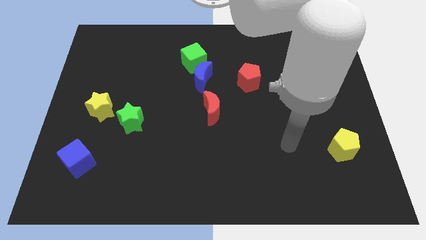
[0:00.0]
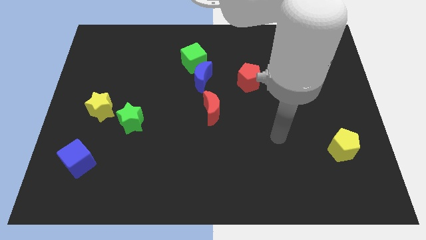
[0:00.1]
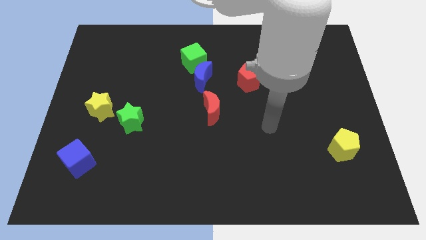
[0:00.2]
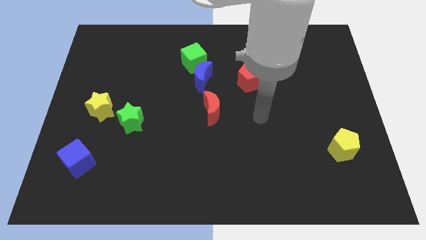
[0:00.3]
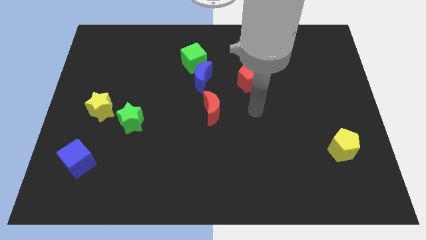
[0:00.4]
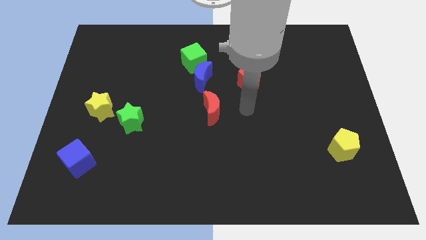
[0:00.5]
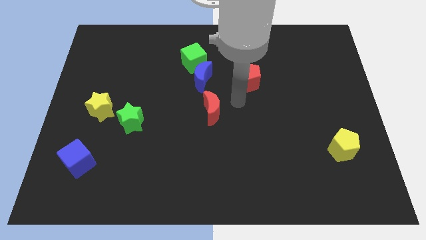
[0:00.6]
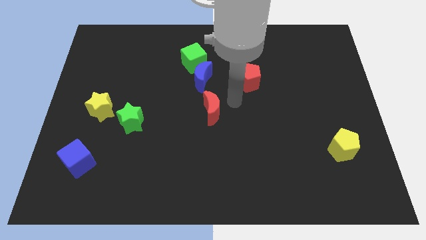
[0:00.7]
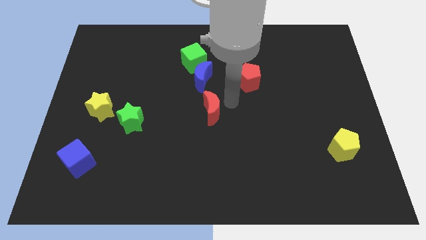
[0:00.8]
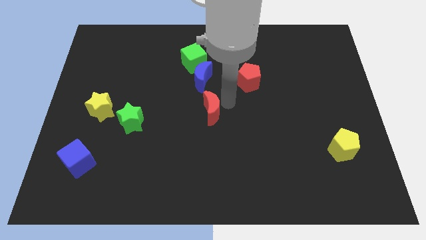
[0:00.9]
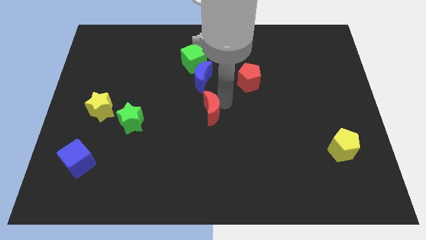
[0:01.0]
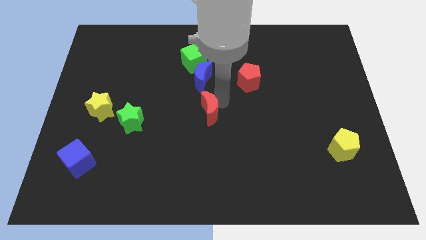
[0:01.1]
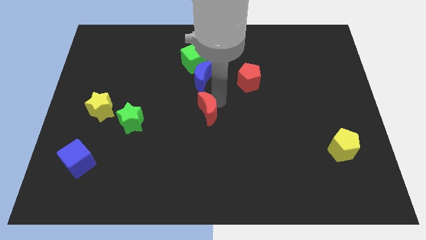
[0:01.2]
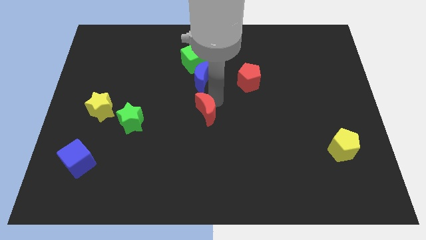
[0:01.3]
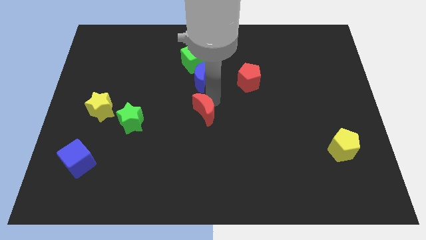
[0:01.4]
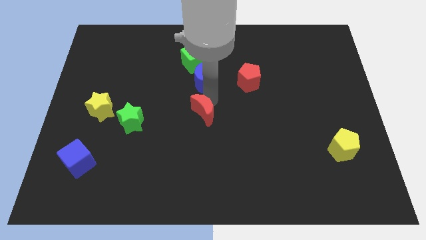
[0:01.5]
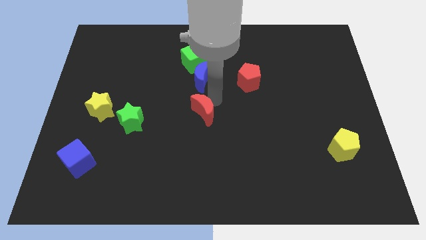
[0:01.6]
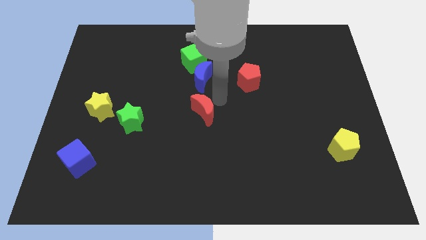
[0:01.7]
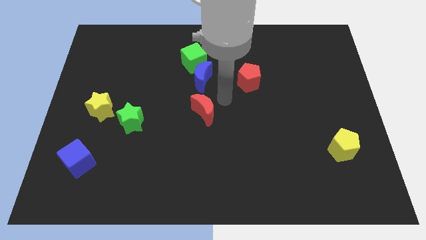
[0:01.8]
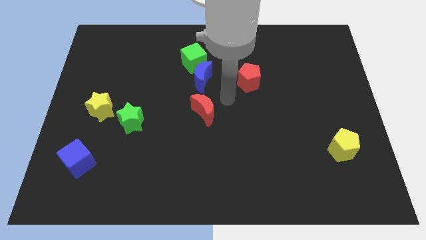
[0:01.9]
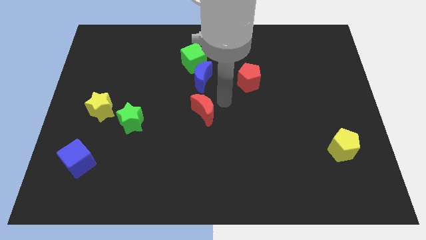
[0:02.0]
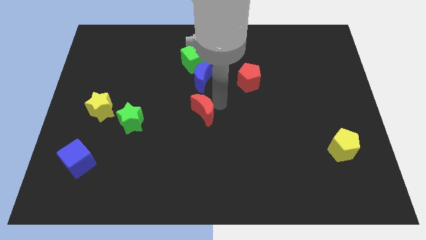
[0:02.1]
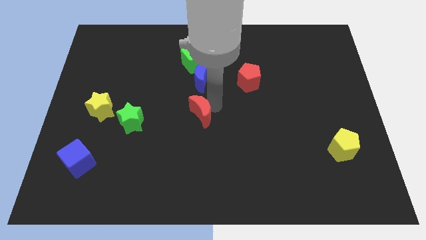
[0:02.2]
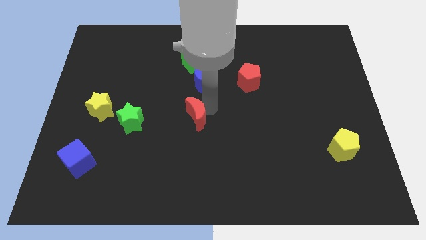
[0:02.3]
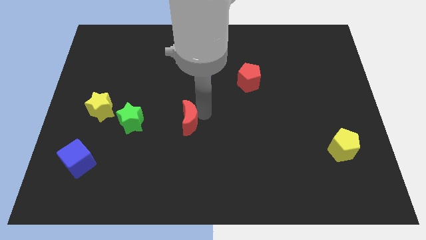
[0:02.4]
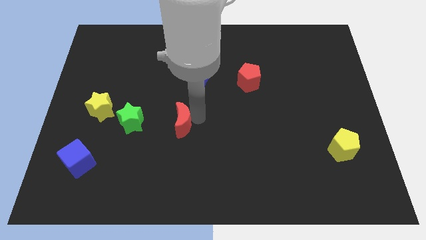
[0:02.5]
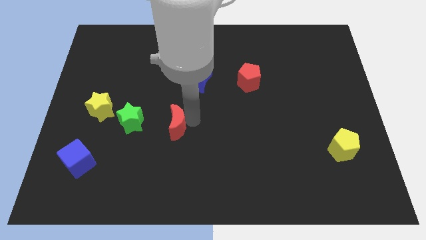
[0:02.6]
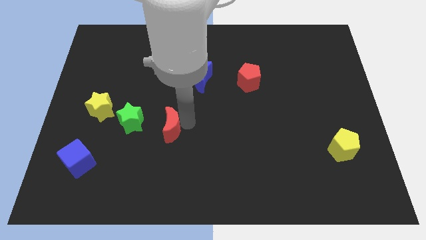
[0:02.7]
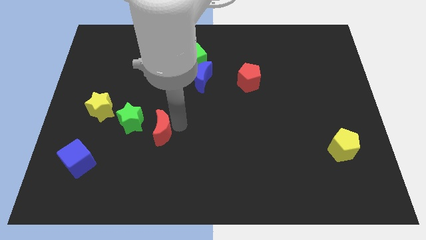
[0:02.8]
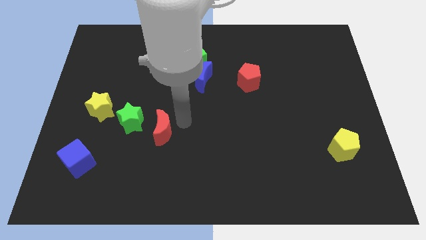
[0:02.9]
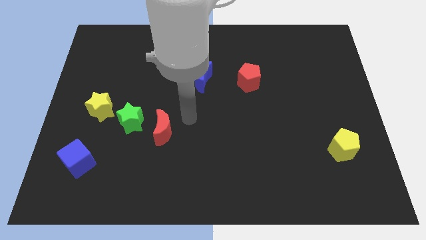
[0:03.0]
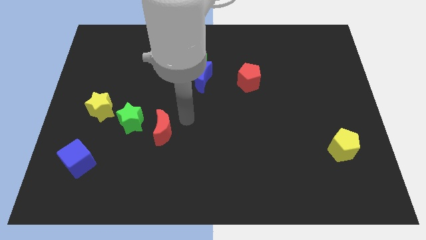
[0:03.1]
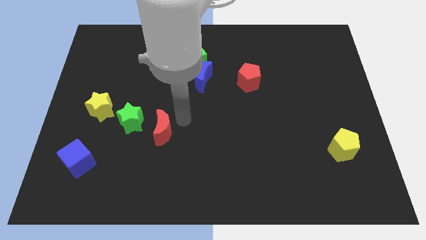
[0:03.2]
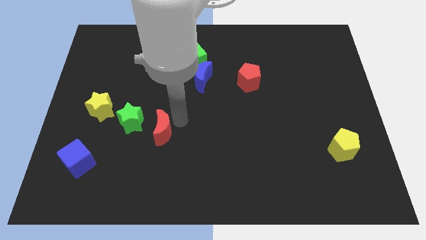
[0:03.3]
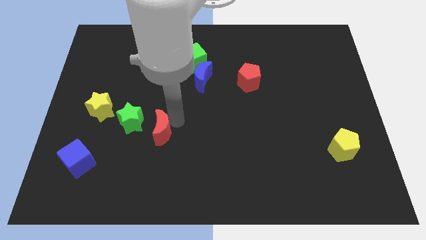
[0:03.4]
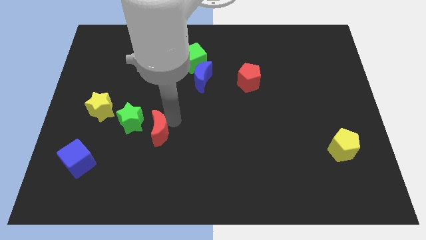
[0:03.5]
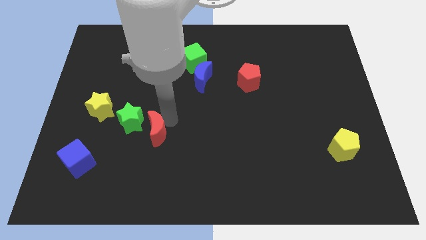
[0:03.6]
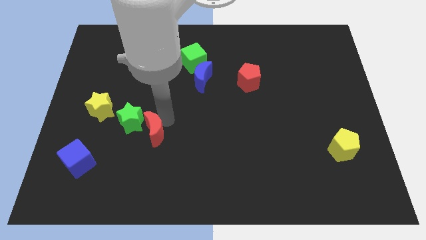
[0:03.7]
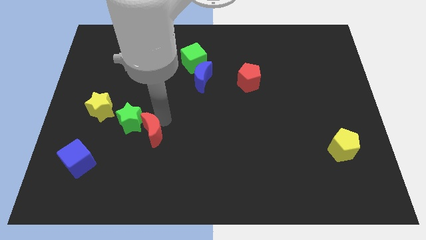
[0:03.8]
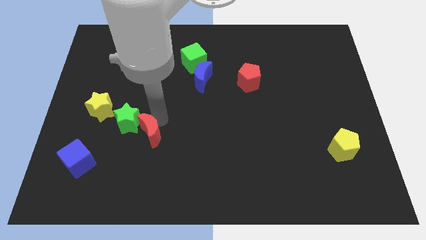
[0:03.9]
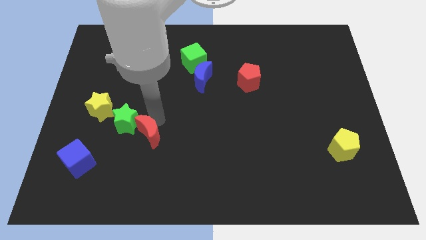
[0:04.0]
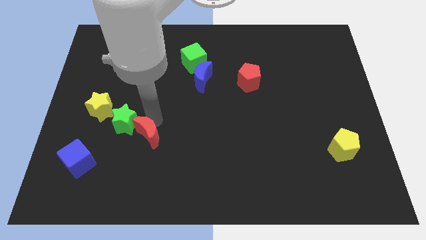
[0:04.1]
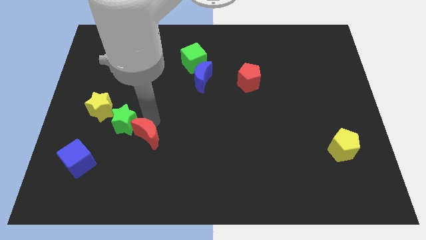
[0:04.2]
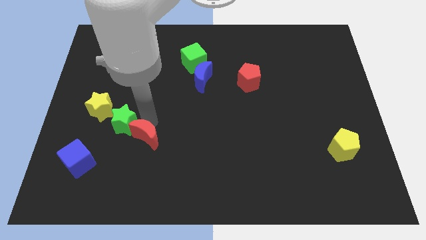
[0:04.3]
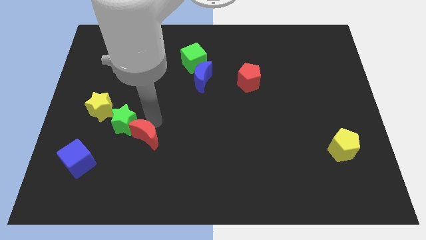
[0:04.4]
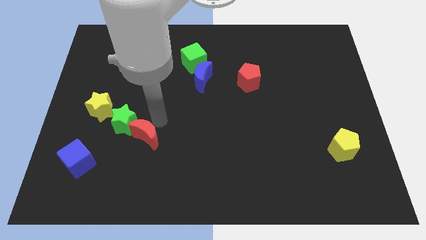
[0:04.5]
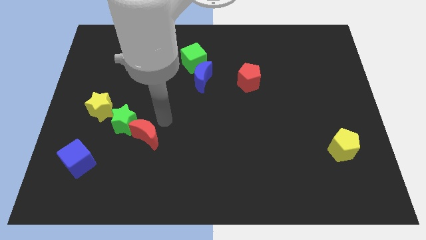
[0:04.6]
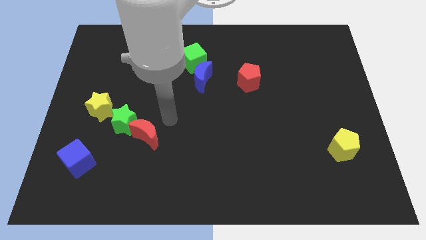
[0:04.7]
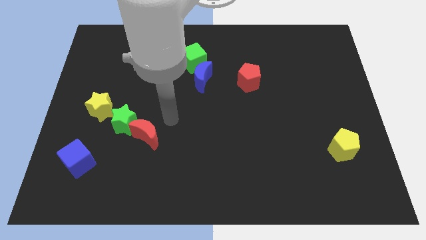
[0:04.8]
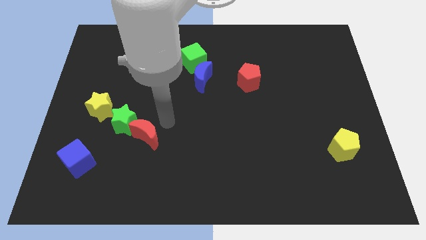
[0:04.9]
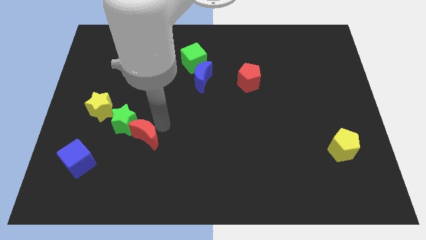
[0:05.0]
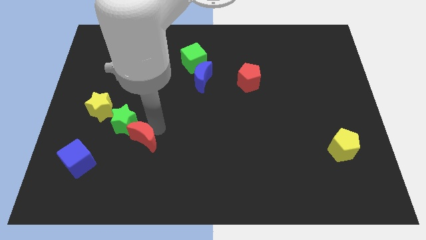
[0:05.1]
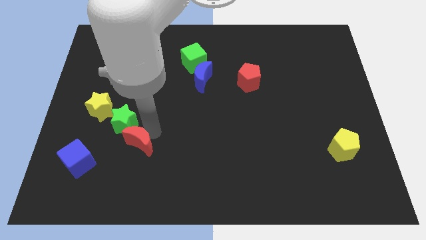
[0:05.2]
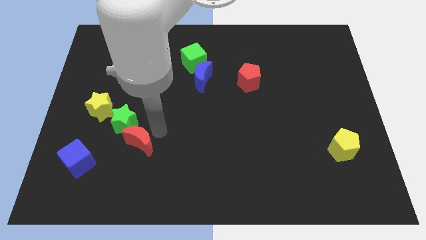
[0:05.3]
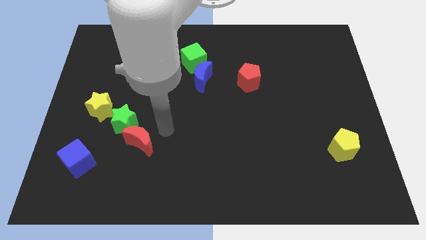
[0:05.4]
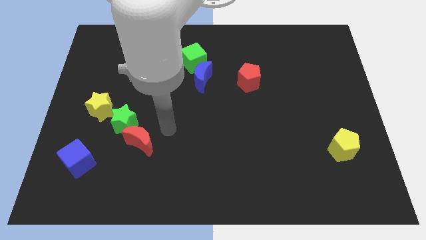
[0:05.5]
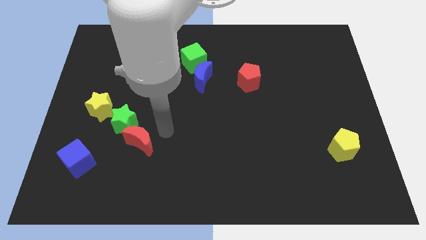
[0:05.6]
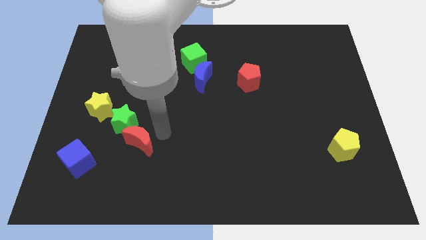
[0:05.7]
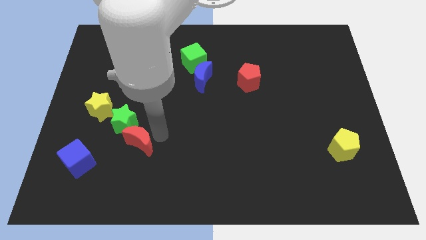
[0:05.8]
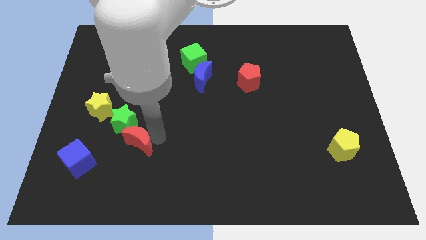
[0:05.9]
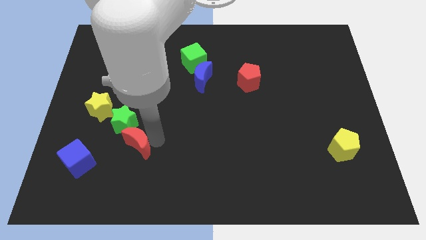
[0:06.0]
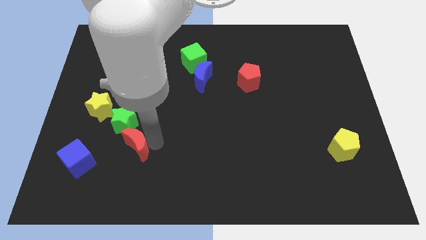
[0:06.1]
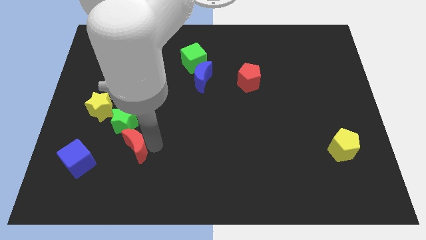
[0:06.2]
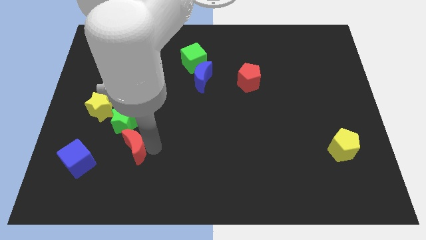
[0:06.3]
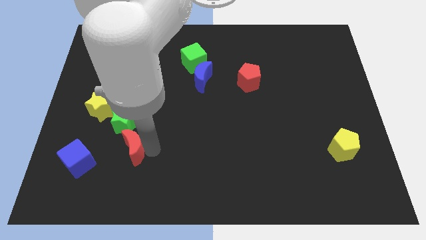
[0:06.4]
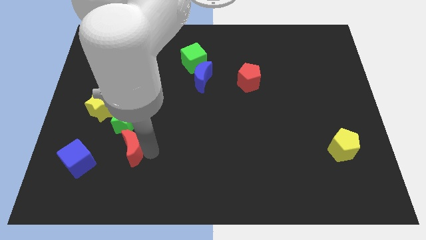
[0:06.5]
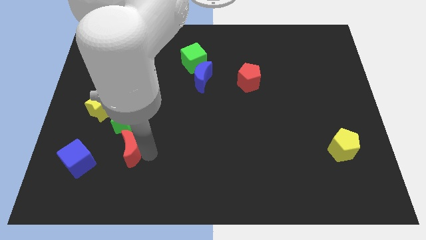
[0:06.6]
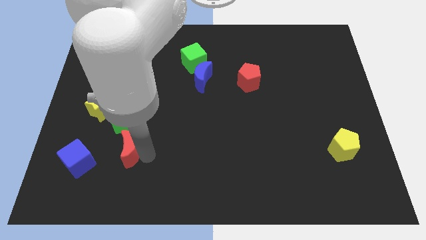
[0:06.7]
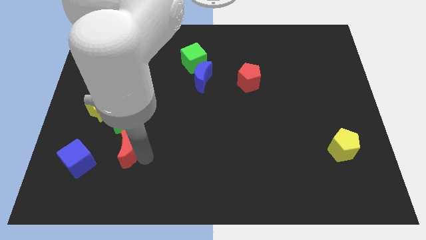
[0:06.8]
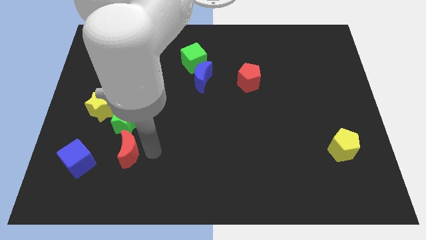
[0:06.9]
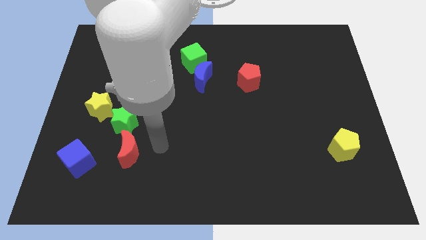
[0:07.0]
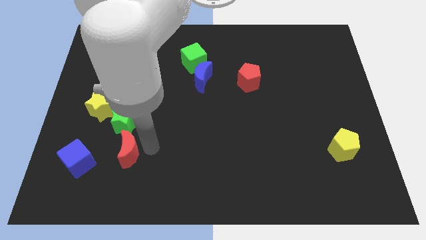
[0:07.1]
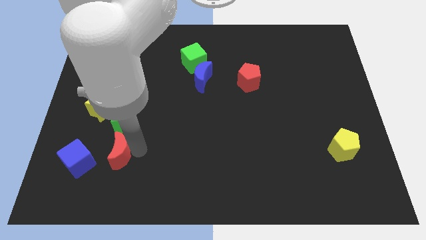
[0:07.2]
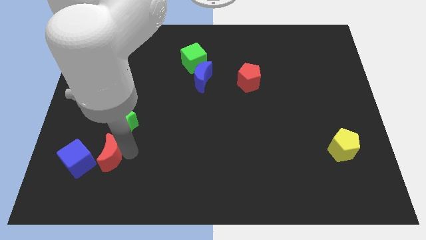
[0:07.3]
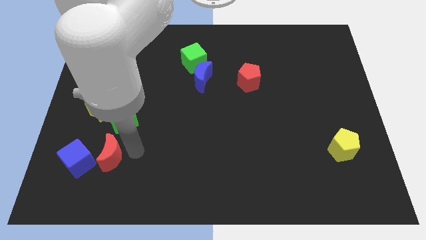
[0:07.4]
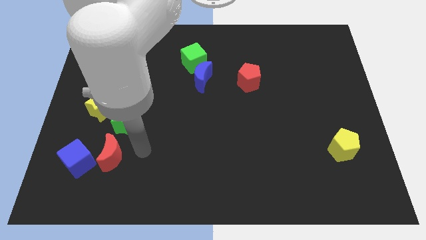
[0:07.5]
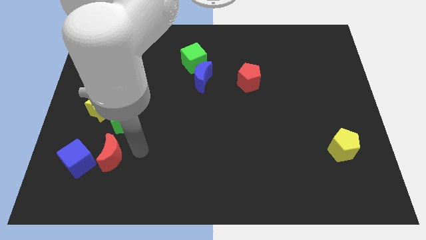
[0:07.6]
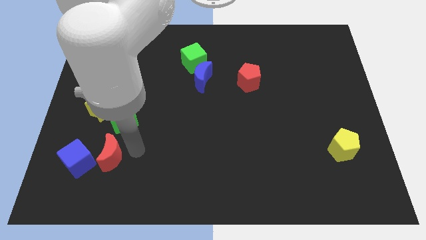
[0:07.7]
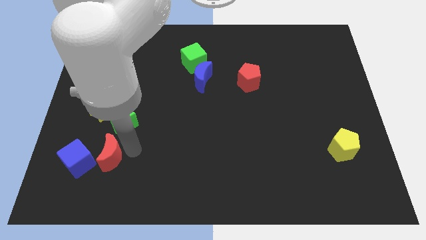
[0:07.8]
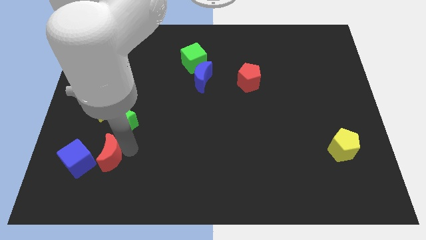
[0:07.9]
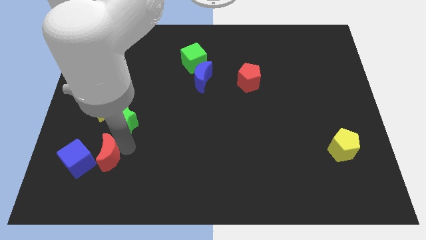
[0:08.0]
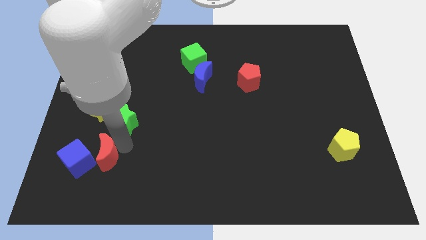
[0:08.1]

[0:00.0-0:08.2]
put the red moon close to the blue cube
